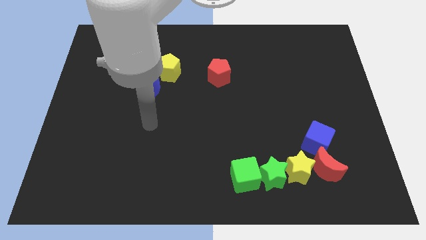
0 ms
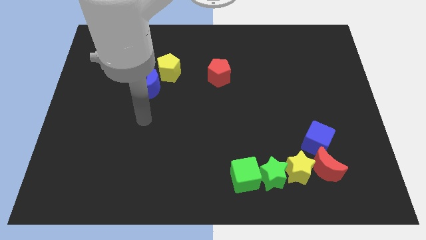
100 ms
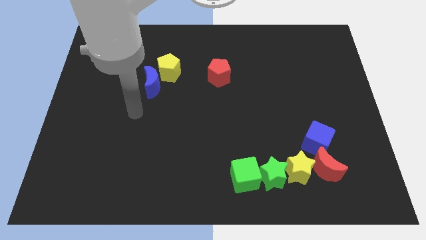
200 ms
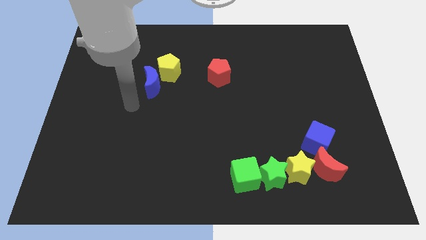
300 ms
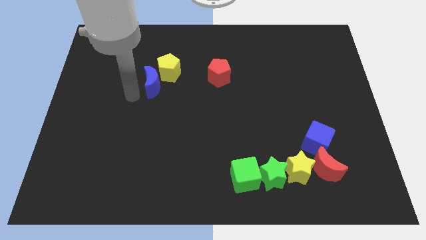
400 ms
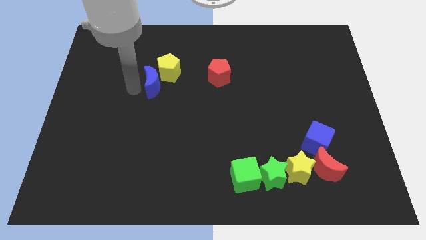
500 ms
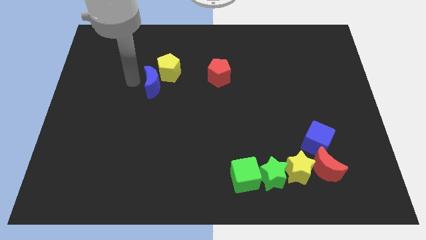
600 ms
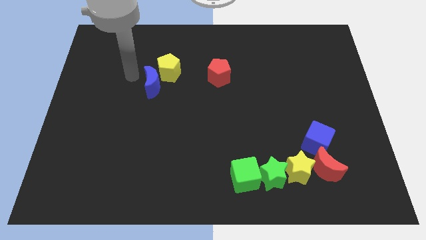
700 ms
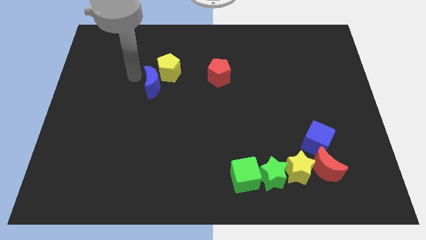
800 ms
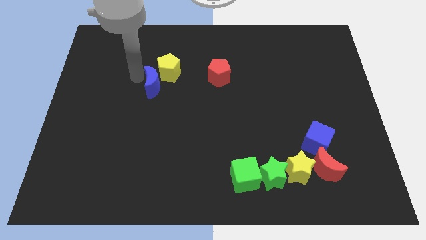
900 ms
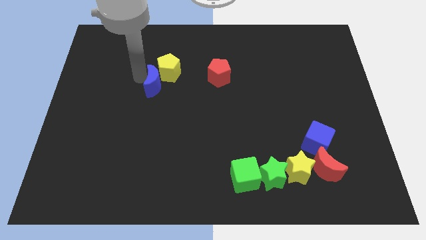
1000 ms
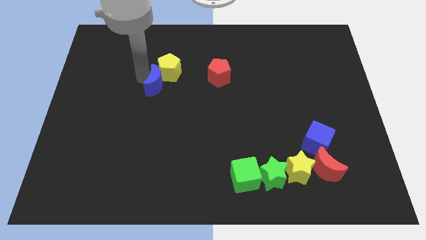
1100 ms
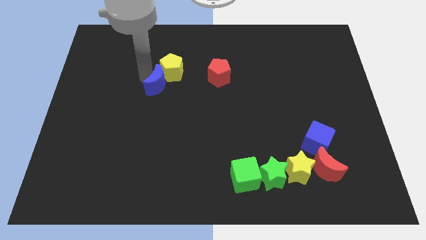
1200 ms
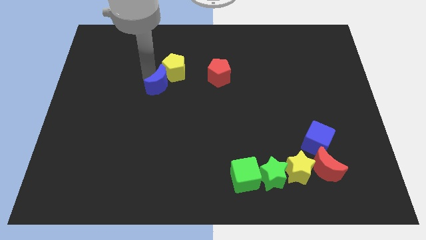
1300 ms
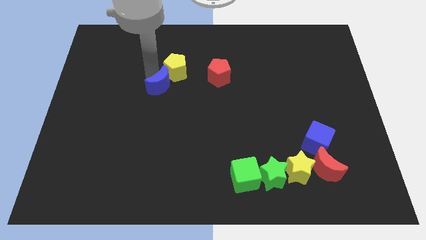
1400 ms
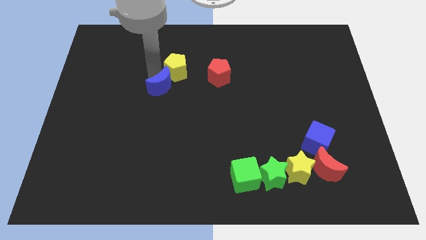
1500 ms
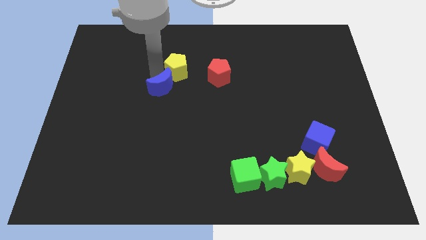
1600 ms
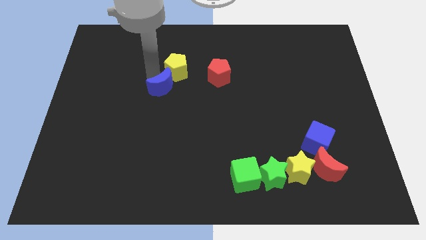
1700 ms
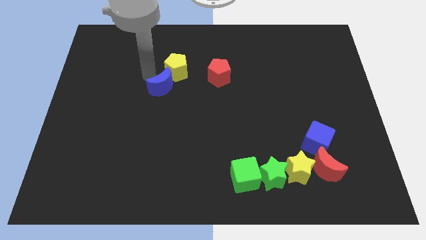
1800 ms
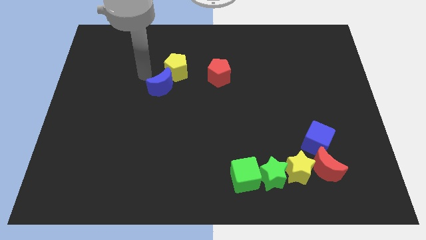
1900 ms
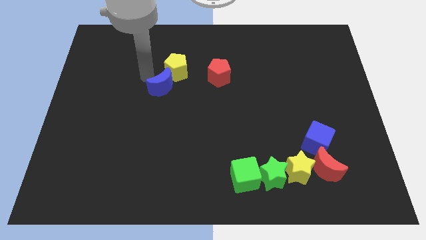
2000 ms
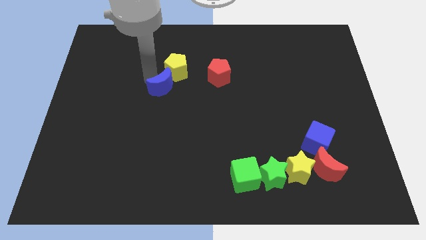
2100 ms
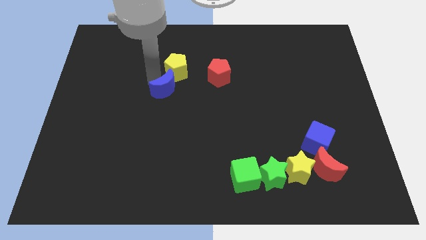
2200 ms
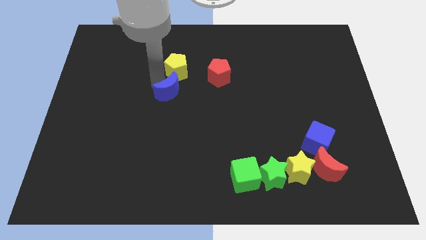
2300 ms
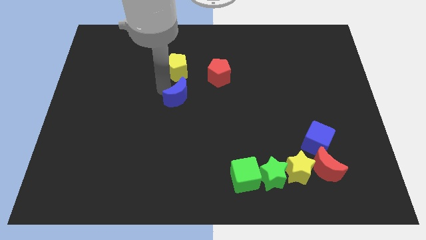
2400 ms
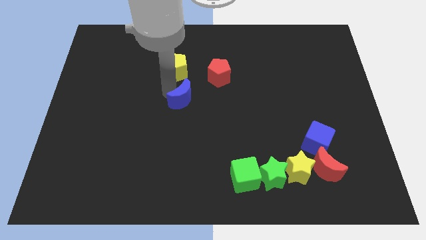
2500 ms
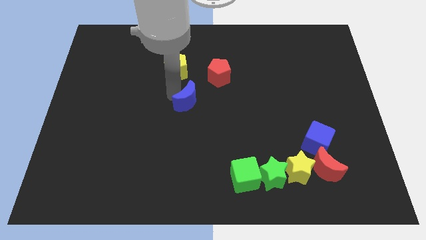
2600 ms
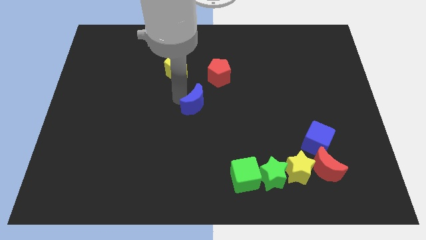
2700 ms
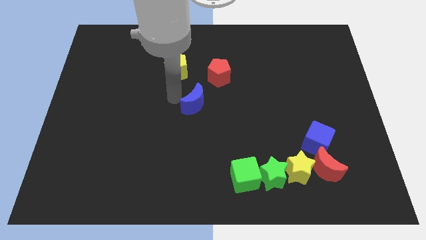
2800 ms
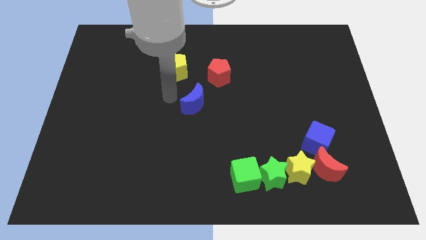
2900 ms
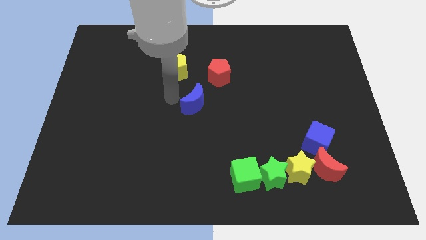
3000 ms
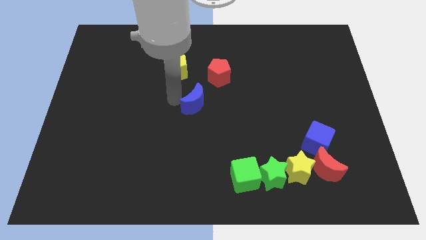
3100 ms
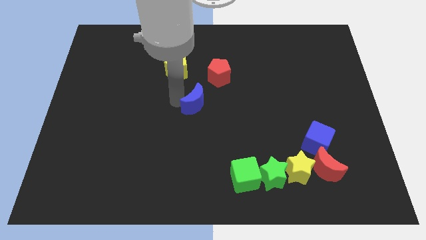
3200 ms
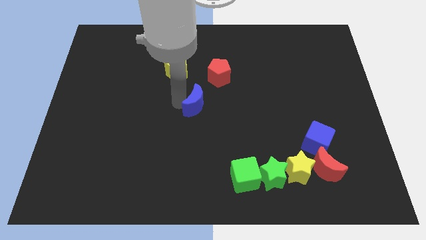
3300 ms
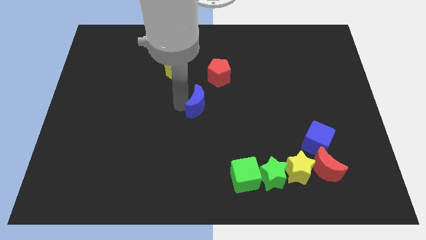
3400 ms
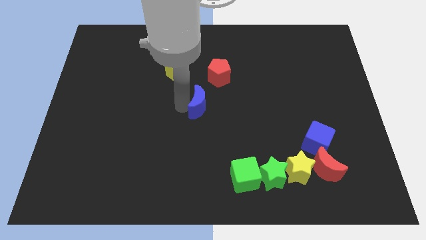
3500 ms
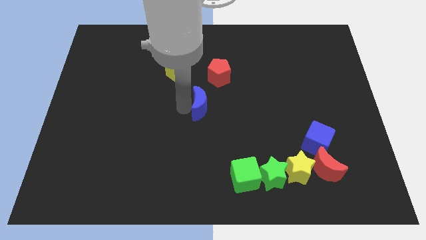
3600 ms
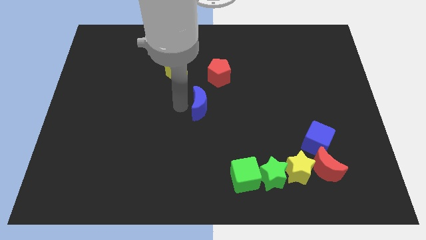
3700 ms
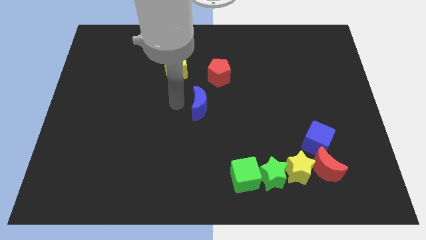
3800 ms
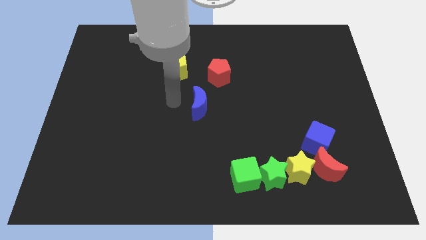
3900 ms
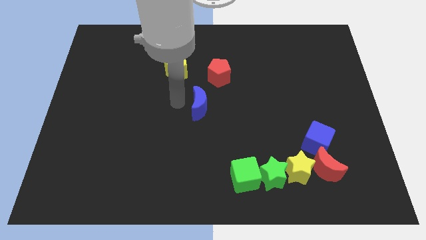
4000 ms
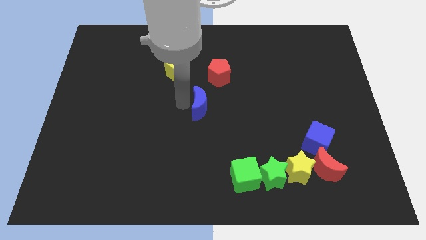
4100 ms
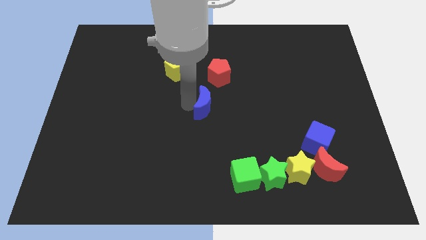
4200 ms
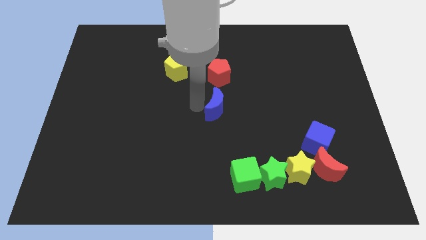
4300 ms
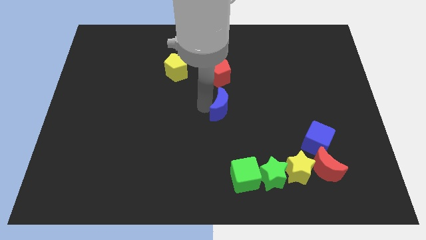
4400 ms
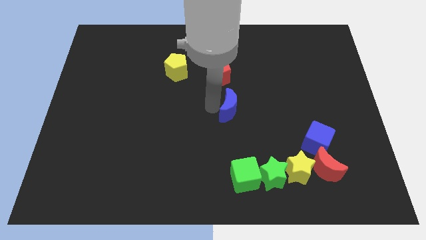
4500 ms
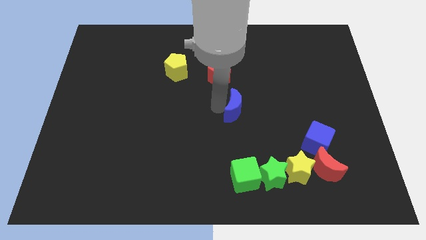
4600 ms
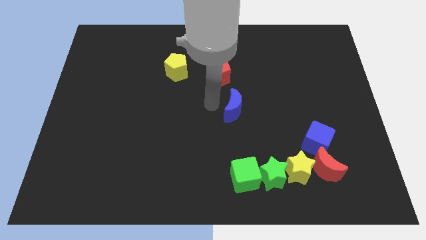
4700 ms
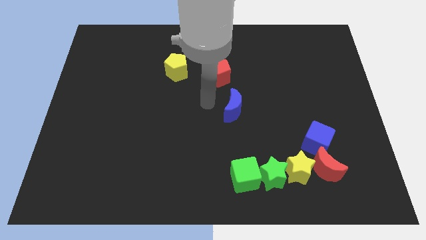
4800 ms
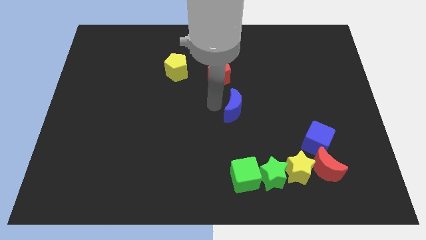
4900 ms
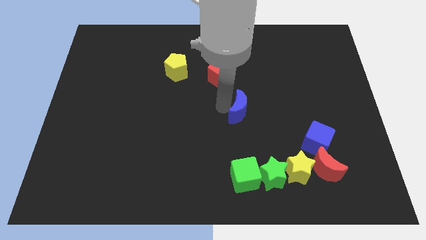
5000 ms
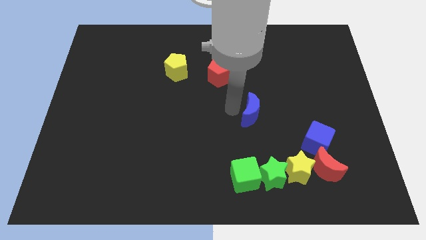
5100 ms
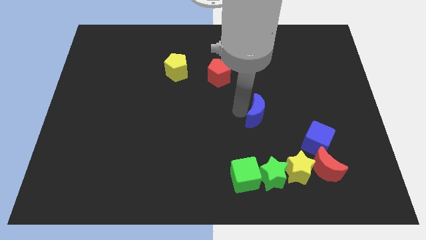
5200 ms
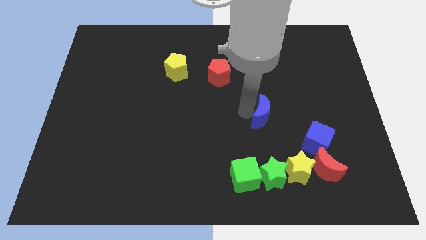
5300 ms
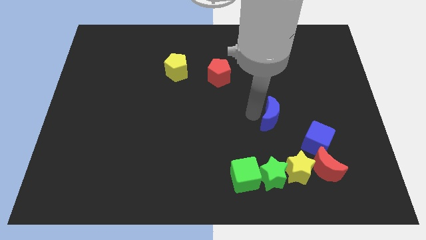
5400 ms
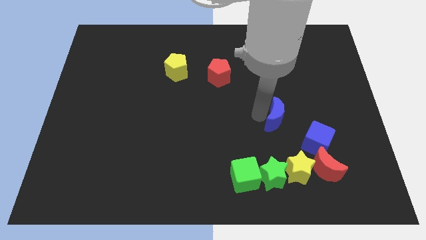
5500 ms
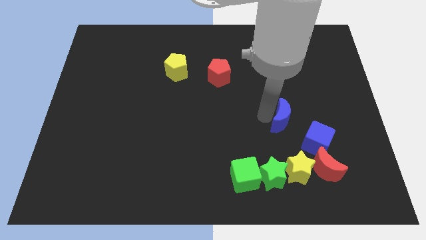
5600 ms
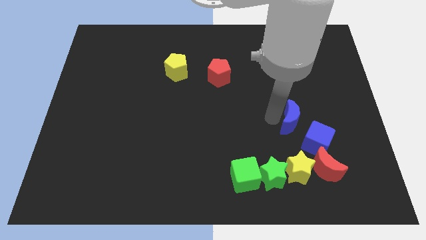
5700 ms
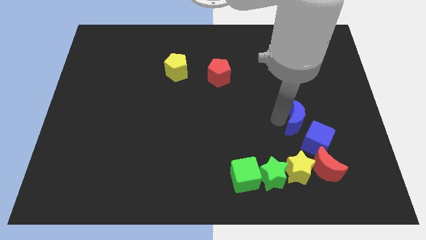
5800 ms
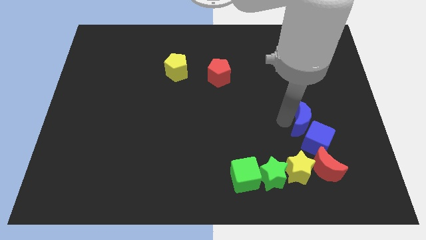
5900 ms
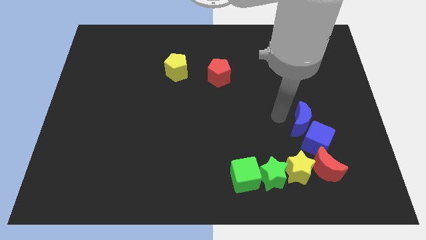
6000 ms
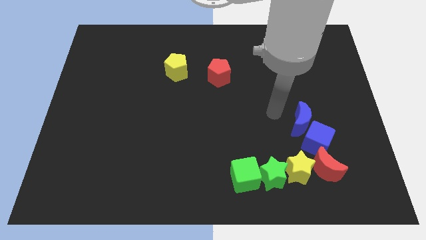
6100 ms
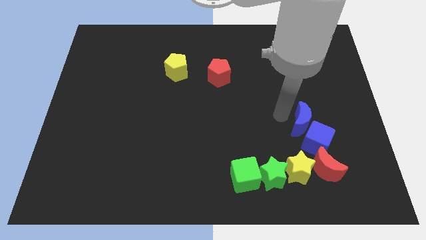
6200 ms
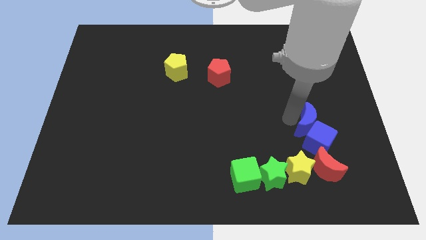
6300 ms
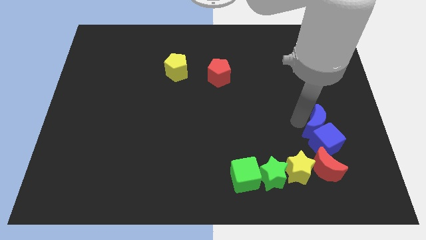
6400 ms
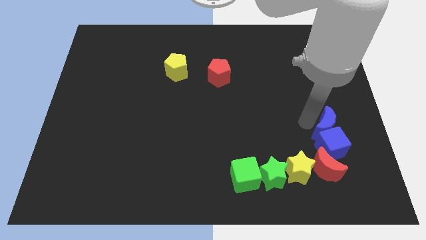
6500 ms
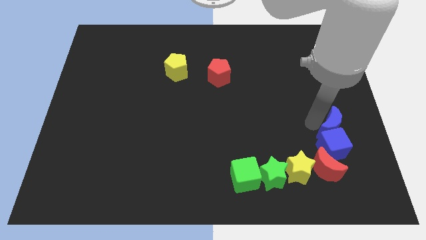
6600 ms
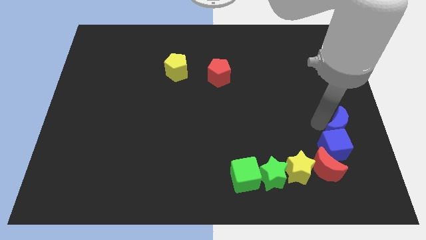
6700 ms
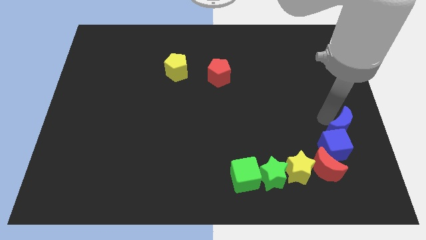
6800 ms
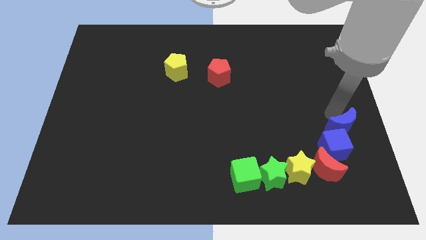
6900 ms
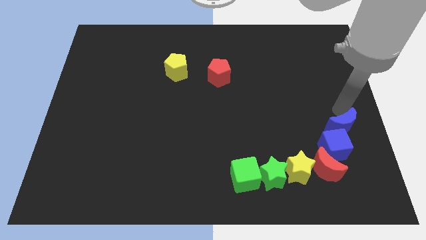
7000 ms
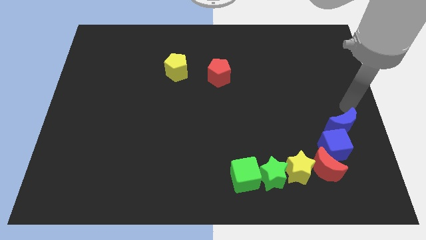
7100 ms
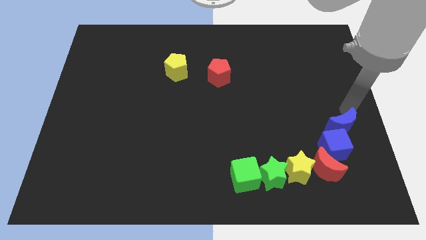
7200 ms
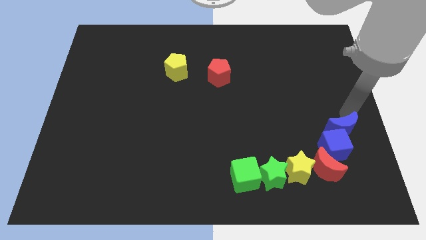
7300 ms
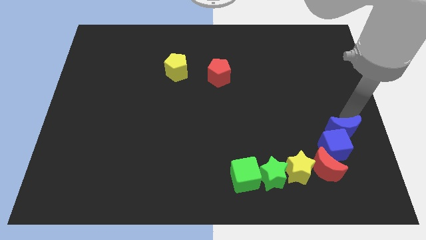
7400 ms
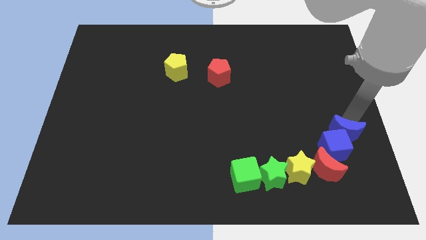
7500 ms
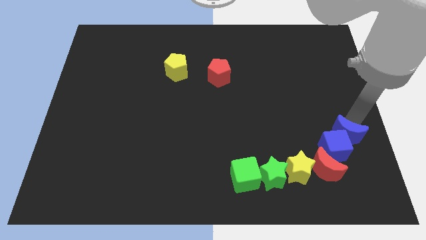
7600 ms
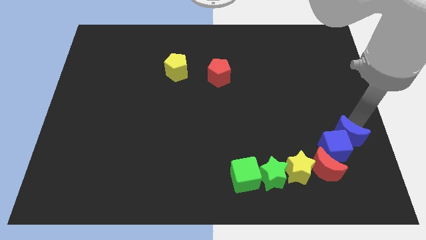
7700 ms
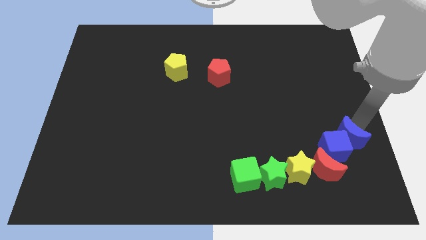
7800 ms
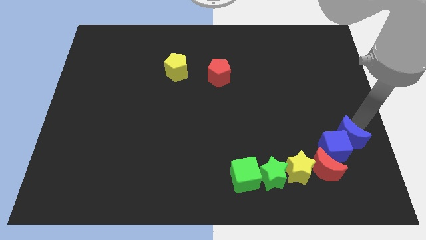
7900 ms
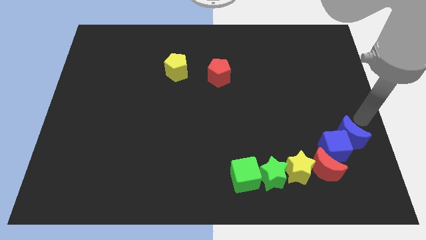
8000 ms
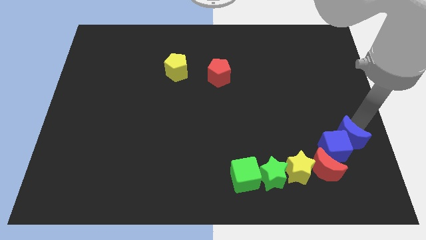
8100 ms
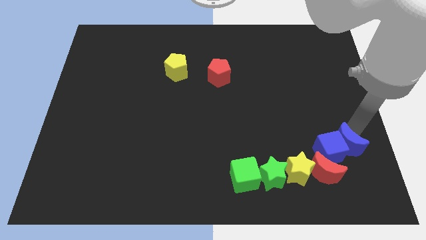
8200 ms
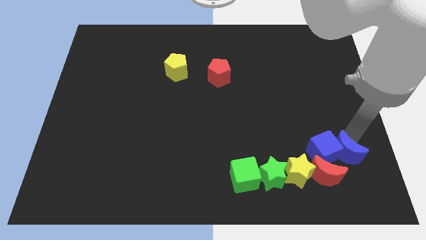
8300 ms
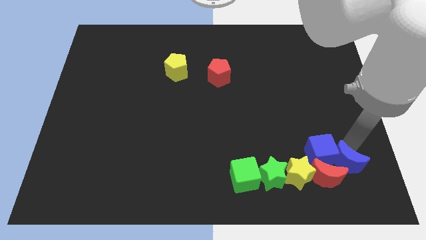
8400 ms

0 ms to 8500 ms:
slide the blue moon towards the red moon
